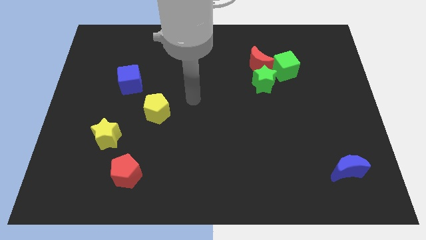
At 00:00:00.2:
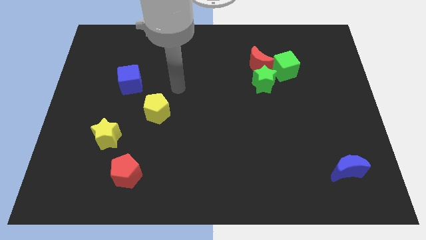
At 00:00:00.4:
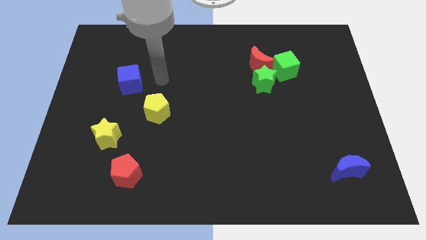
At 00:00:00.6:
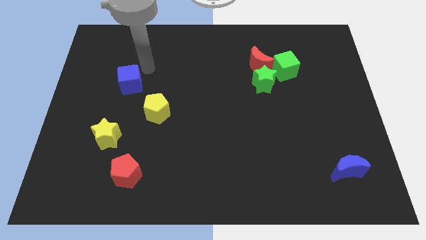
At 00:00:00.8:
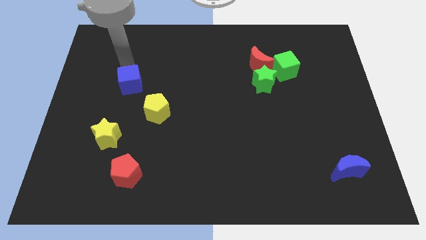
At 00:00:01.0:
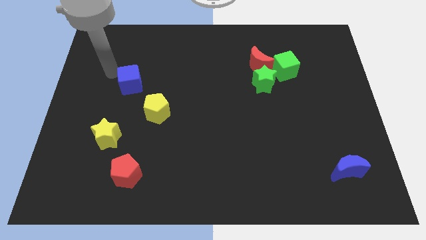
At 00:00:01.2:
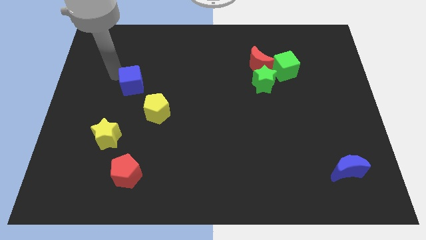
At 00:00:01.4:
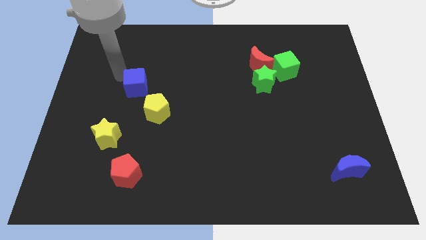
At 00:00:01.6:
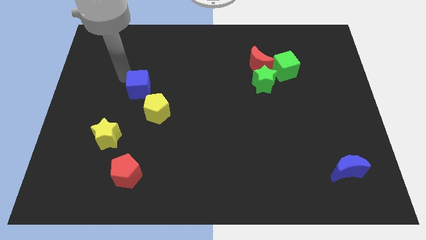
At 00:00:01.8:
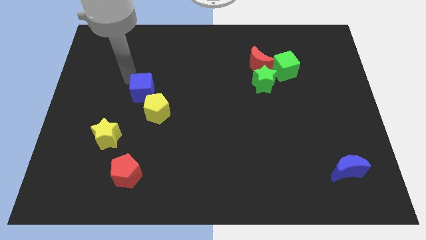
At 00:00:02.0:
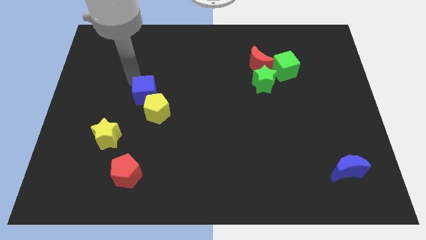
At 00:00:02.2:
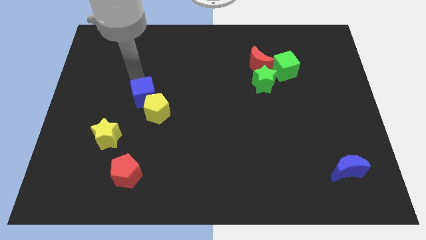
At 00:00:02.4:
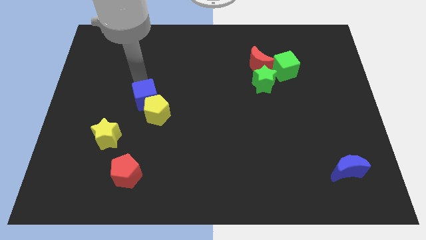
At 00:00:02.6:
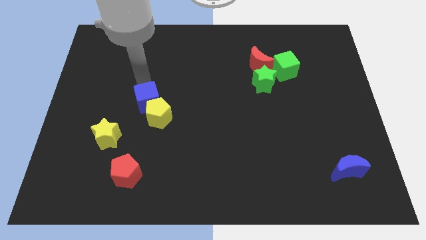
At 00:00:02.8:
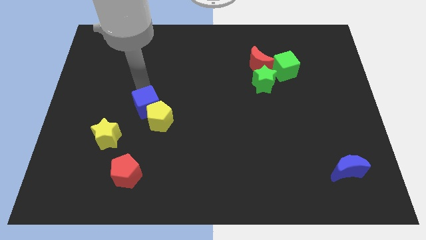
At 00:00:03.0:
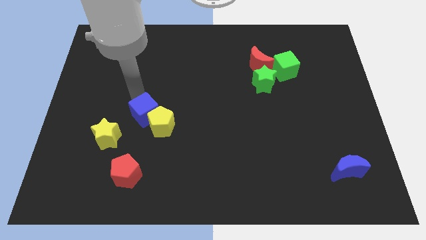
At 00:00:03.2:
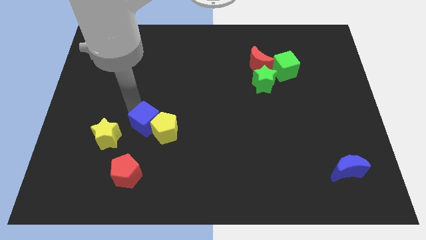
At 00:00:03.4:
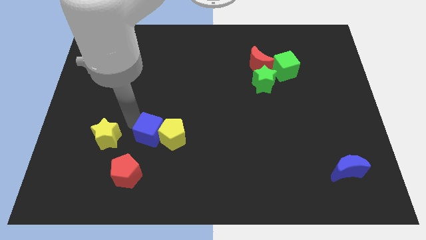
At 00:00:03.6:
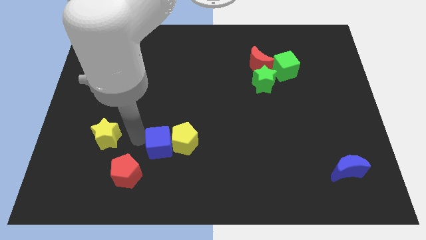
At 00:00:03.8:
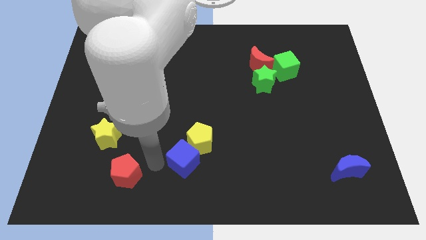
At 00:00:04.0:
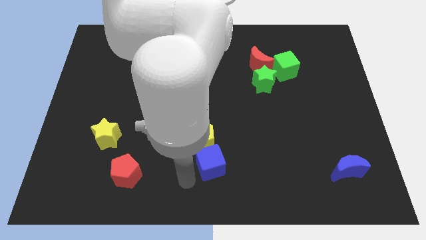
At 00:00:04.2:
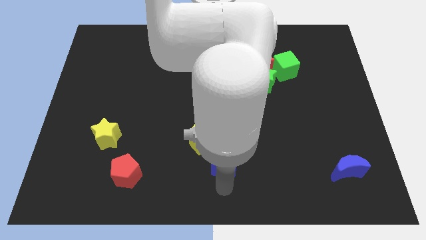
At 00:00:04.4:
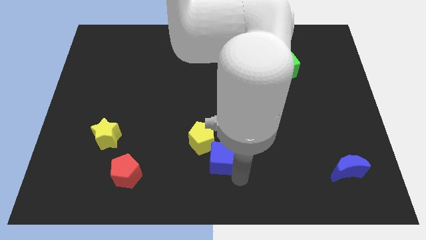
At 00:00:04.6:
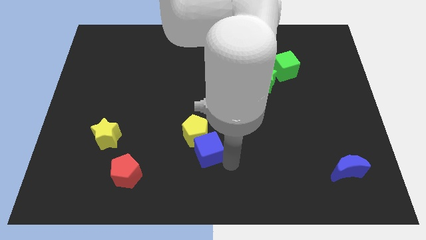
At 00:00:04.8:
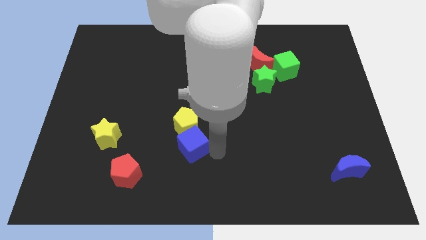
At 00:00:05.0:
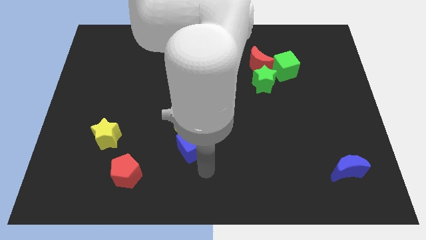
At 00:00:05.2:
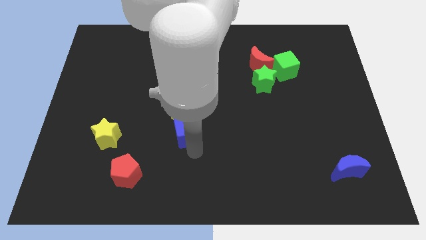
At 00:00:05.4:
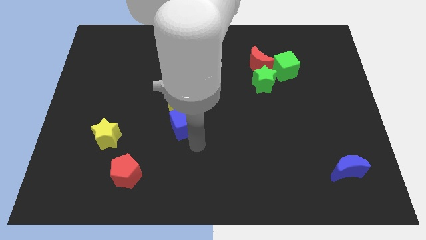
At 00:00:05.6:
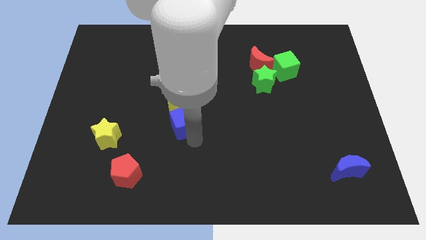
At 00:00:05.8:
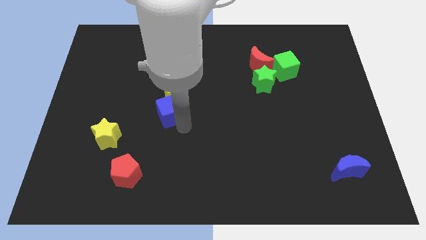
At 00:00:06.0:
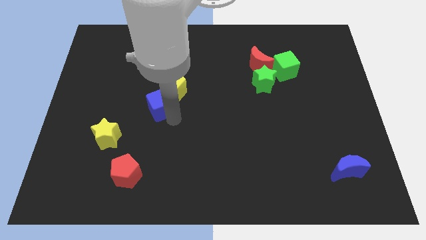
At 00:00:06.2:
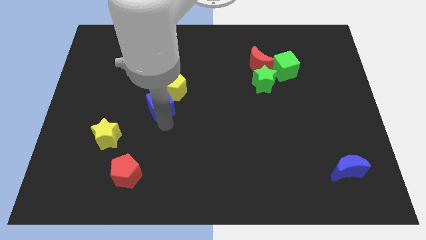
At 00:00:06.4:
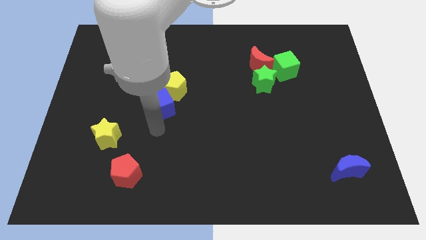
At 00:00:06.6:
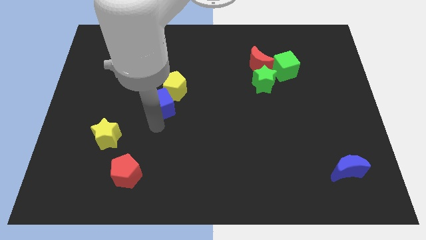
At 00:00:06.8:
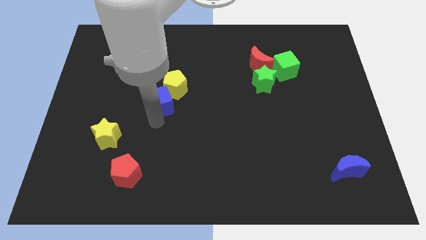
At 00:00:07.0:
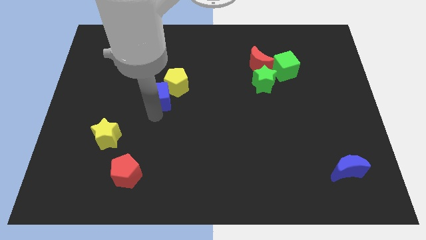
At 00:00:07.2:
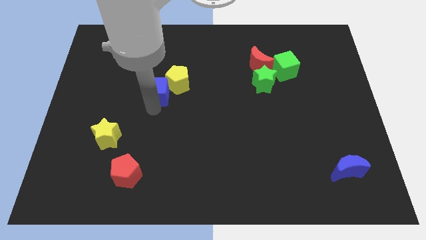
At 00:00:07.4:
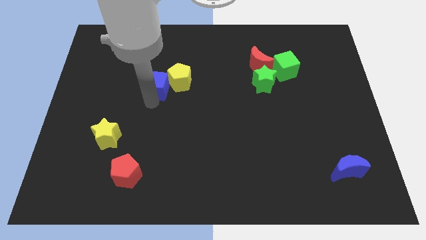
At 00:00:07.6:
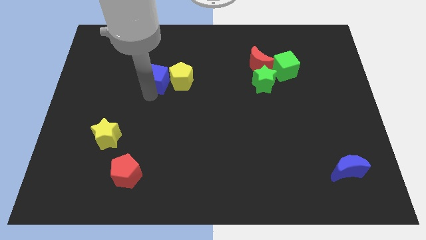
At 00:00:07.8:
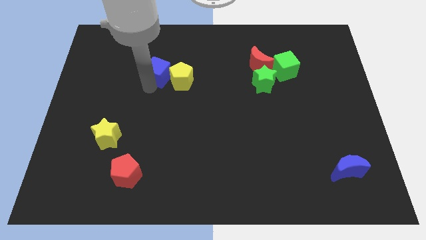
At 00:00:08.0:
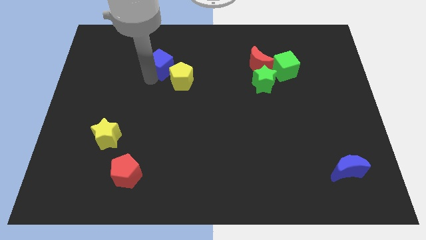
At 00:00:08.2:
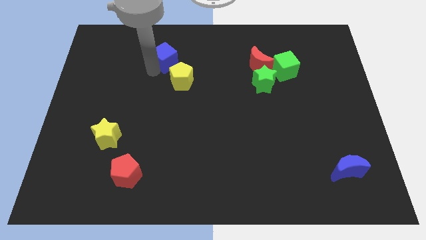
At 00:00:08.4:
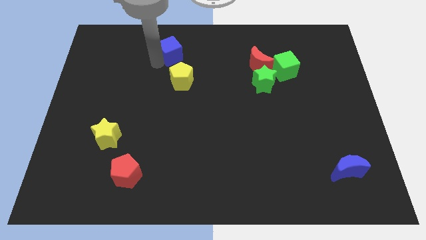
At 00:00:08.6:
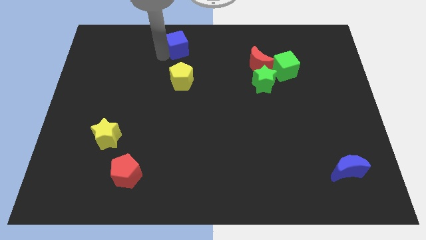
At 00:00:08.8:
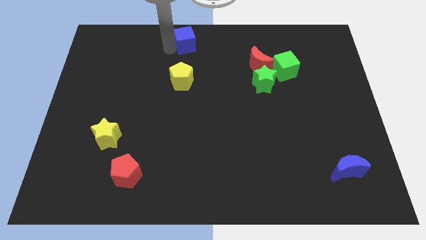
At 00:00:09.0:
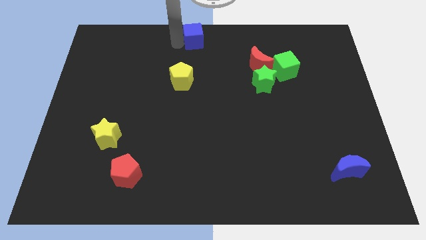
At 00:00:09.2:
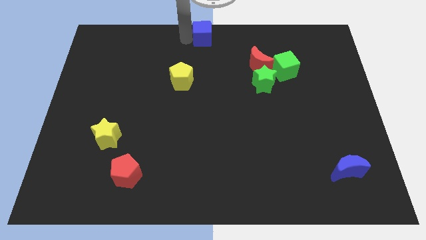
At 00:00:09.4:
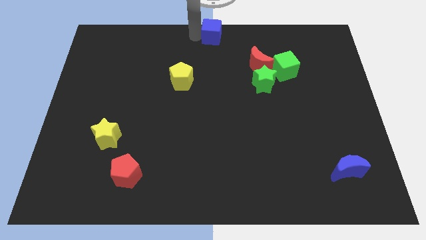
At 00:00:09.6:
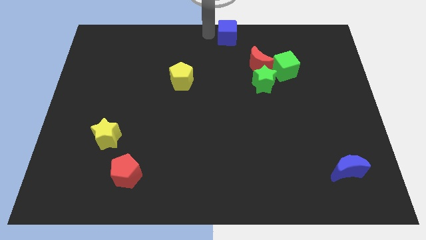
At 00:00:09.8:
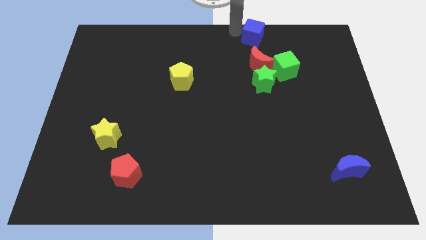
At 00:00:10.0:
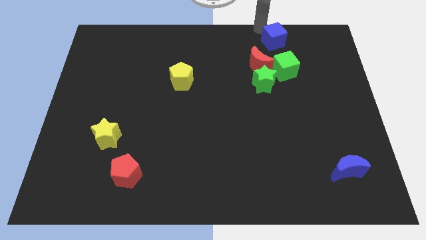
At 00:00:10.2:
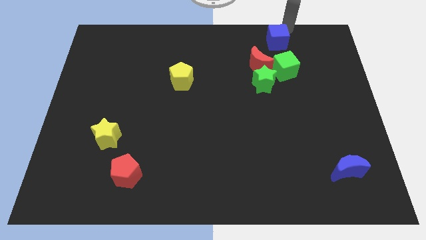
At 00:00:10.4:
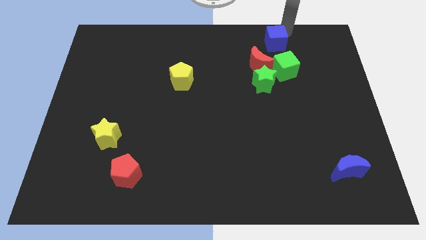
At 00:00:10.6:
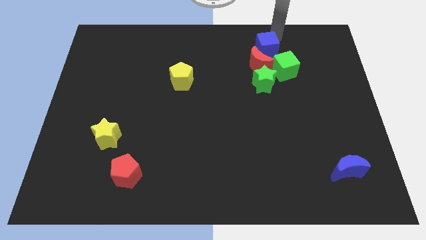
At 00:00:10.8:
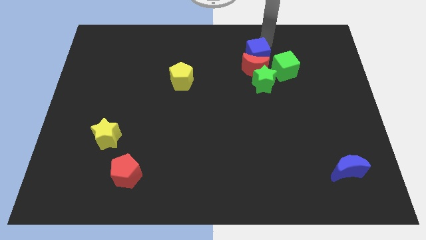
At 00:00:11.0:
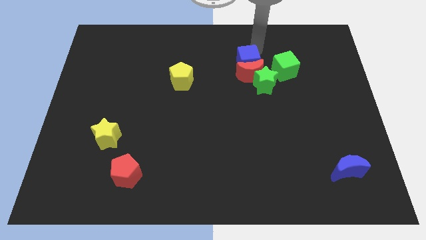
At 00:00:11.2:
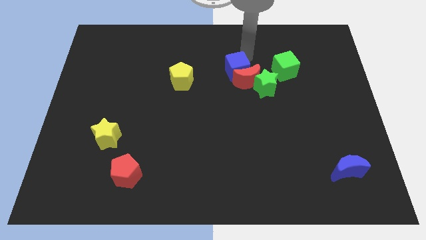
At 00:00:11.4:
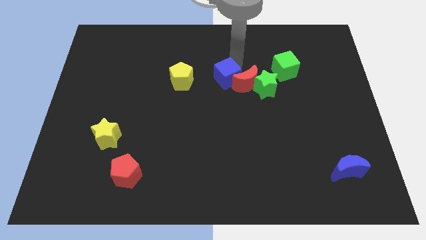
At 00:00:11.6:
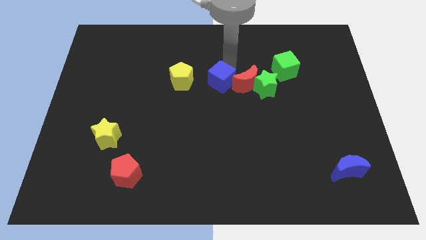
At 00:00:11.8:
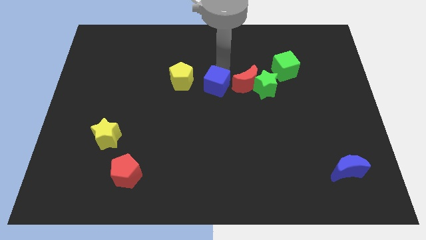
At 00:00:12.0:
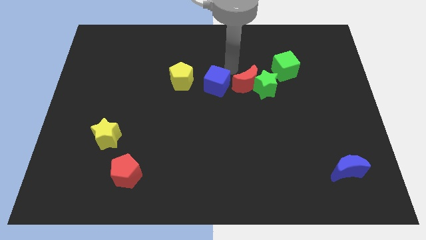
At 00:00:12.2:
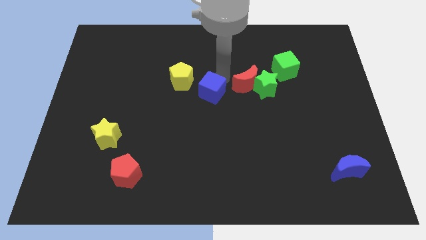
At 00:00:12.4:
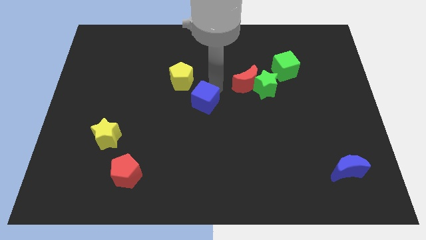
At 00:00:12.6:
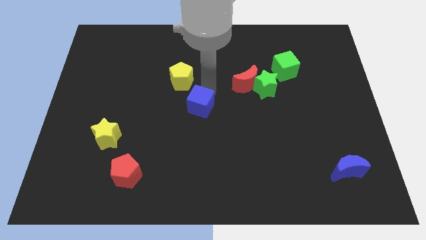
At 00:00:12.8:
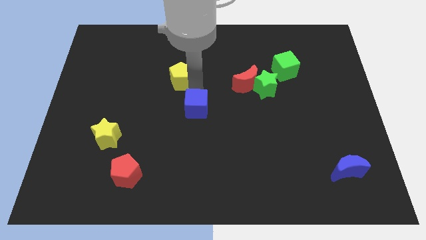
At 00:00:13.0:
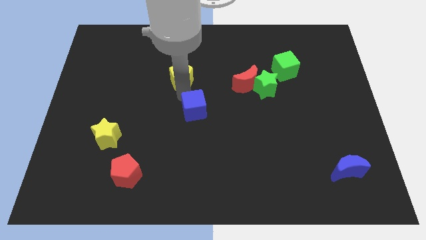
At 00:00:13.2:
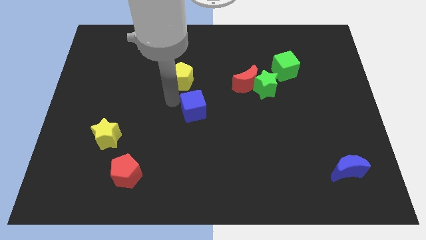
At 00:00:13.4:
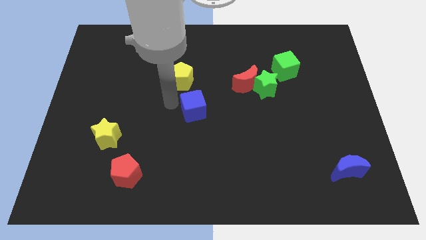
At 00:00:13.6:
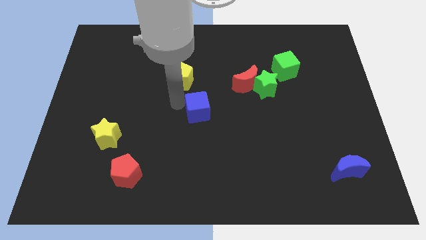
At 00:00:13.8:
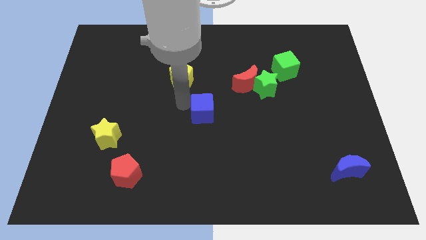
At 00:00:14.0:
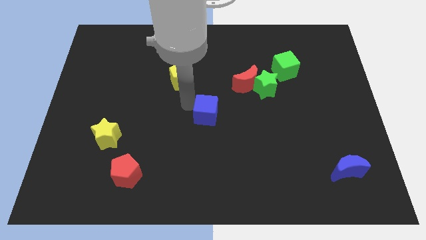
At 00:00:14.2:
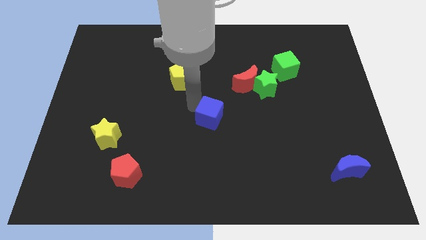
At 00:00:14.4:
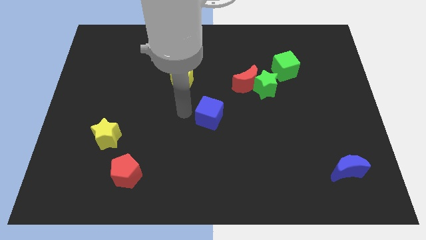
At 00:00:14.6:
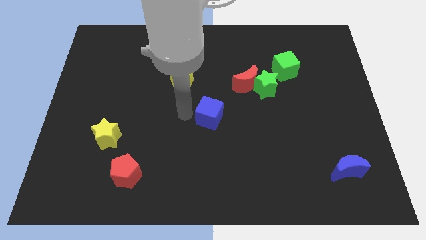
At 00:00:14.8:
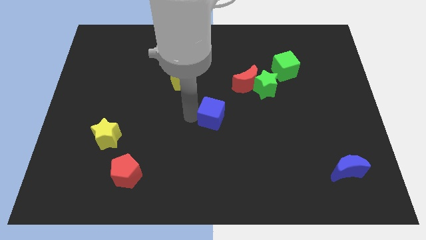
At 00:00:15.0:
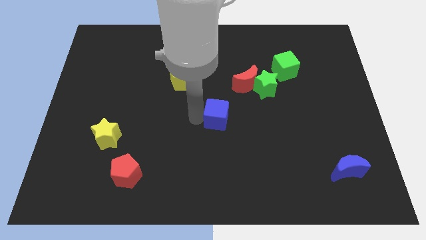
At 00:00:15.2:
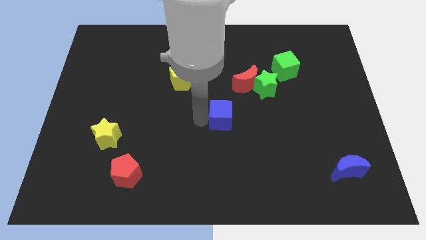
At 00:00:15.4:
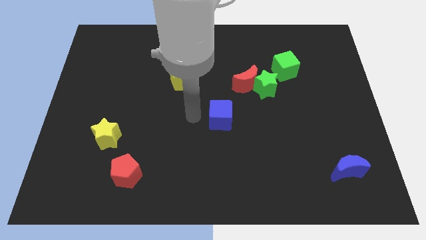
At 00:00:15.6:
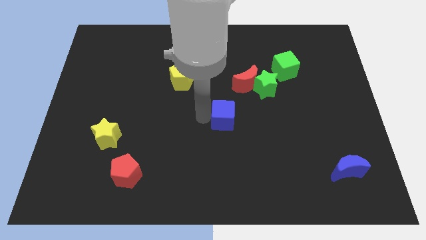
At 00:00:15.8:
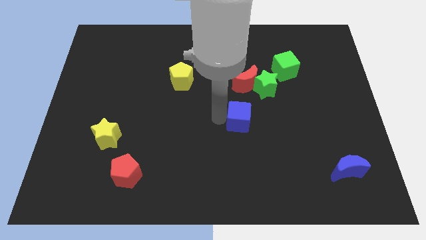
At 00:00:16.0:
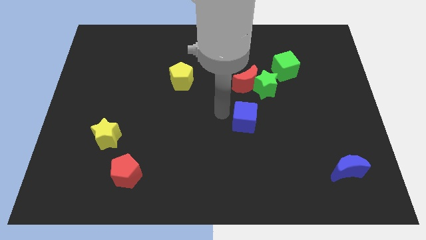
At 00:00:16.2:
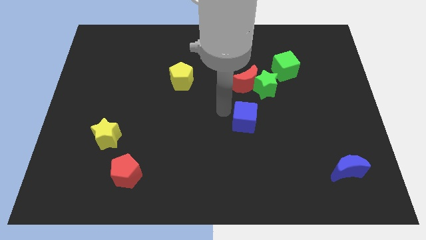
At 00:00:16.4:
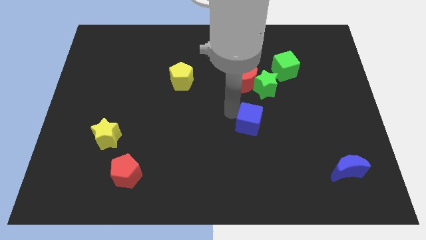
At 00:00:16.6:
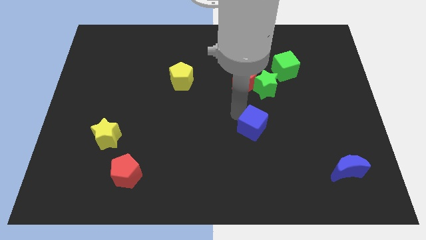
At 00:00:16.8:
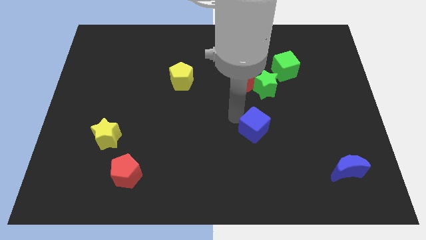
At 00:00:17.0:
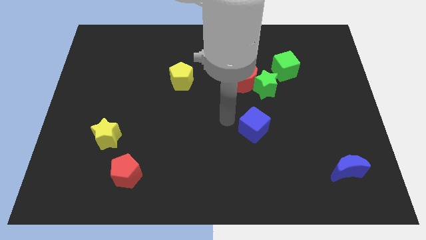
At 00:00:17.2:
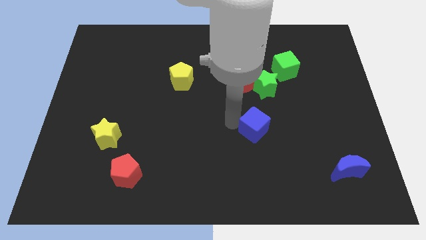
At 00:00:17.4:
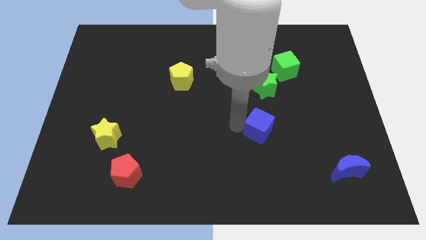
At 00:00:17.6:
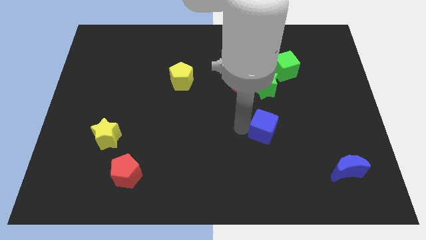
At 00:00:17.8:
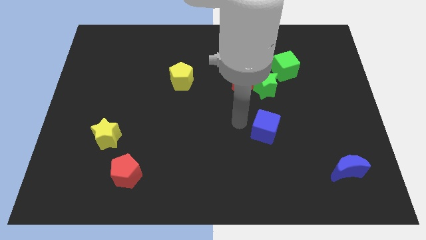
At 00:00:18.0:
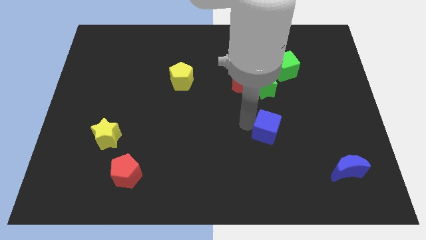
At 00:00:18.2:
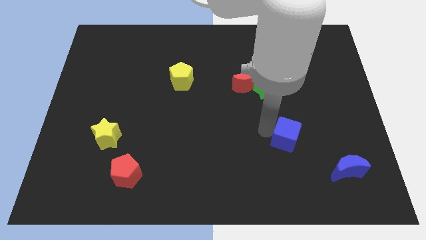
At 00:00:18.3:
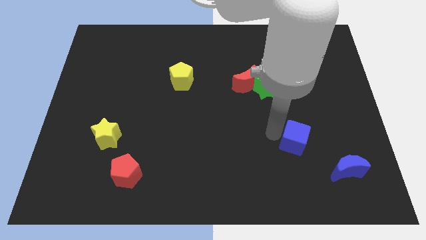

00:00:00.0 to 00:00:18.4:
push the blue cube to the top left of the blue moon
